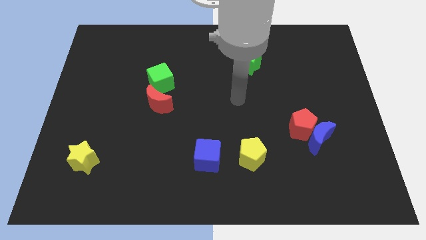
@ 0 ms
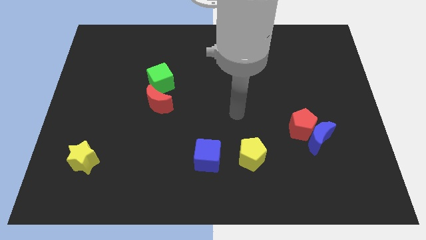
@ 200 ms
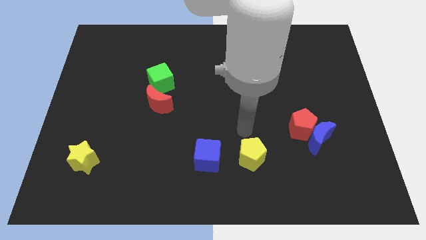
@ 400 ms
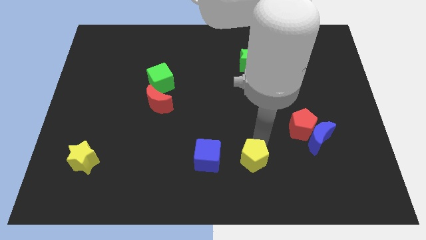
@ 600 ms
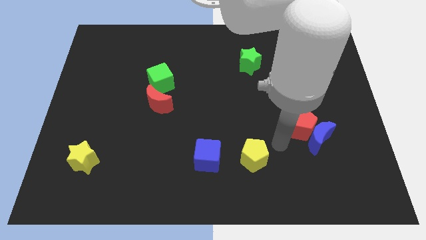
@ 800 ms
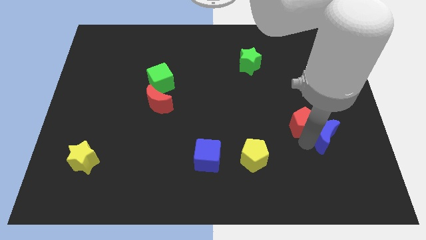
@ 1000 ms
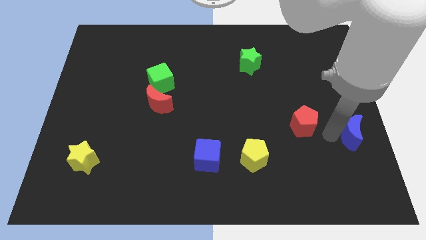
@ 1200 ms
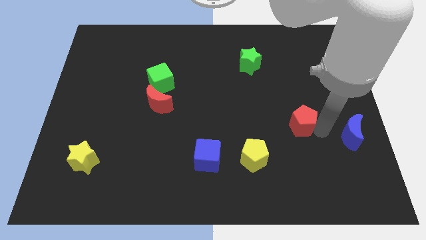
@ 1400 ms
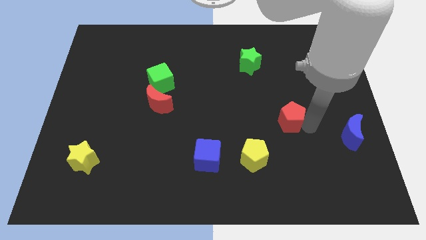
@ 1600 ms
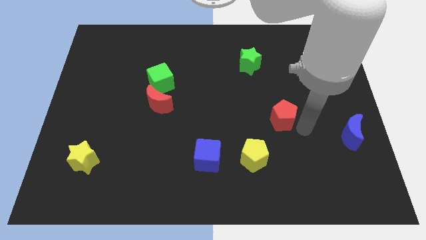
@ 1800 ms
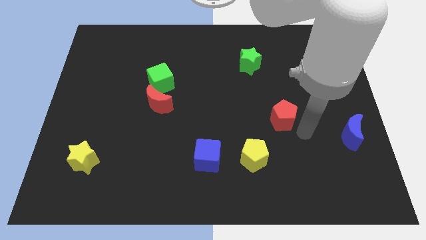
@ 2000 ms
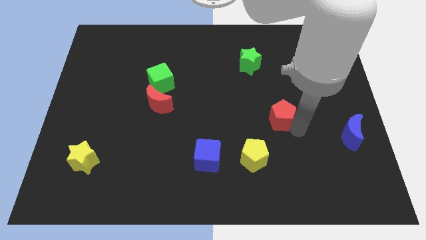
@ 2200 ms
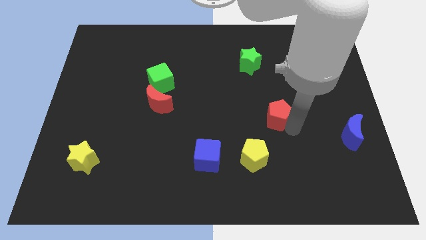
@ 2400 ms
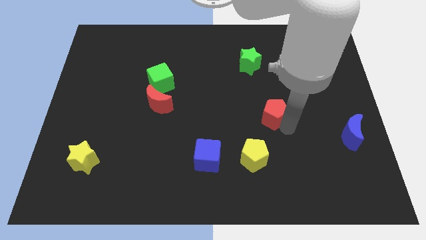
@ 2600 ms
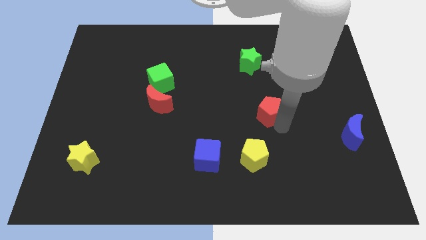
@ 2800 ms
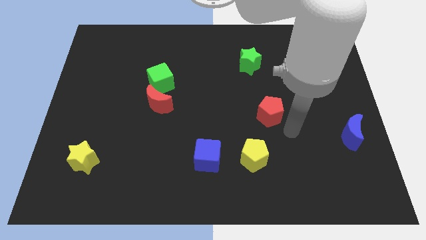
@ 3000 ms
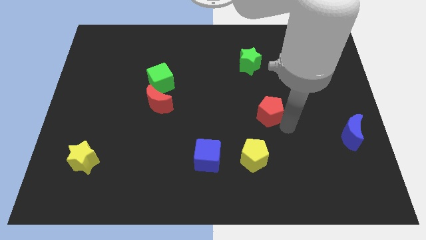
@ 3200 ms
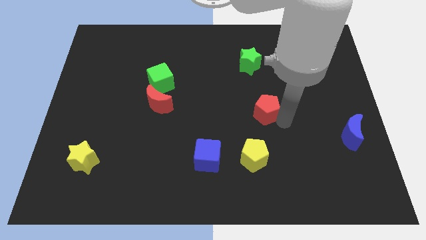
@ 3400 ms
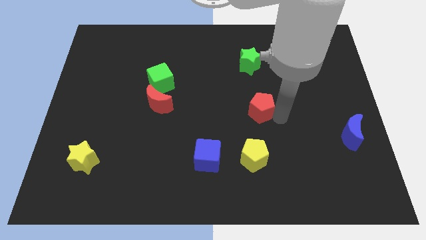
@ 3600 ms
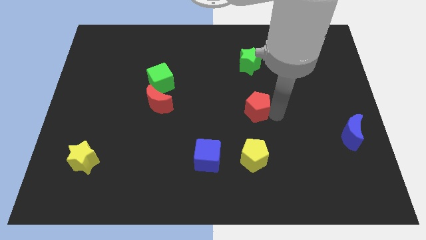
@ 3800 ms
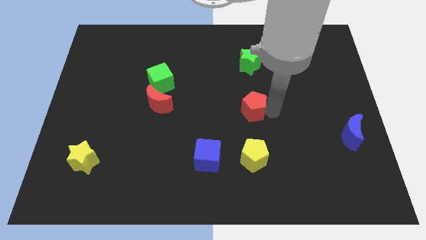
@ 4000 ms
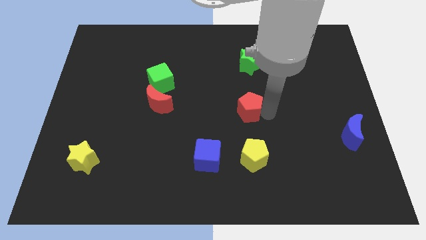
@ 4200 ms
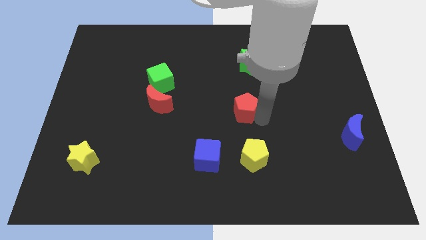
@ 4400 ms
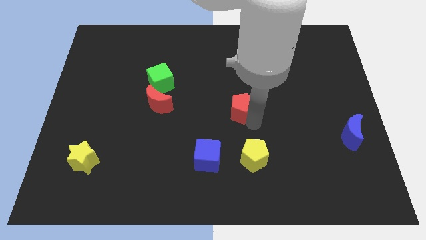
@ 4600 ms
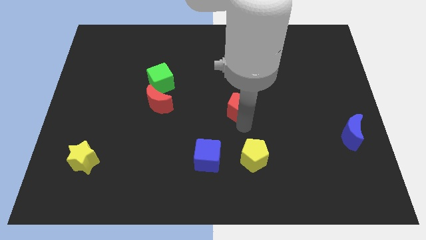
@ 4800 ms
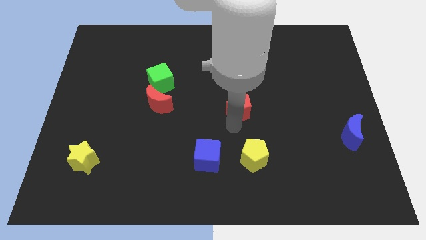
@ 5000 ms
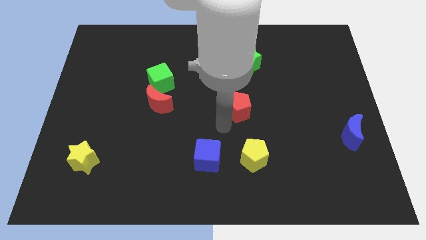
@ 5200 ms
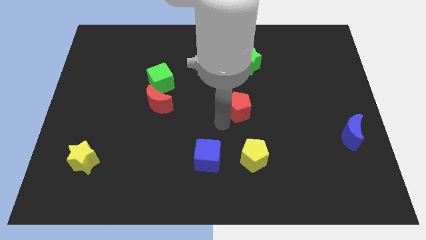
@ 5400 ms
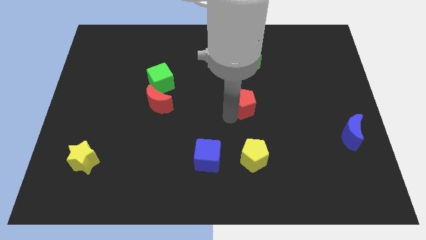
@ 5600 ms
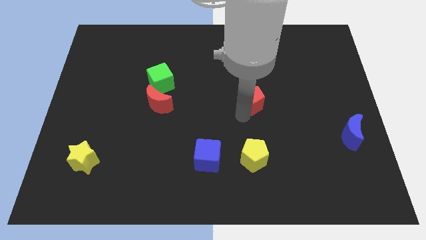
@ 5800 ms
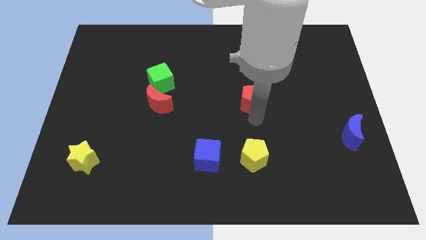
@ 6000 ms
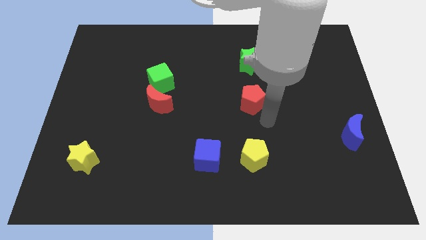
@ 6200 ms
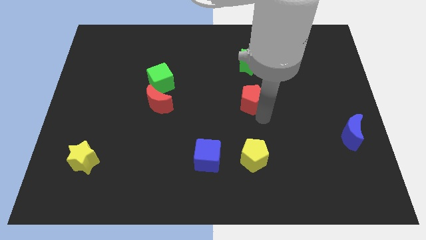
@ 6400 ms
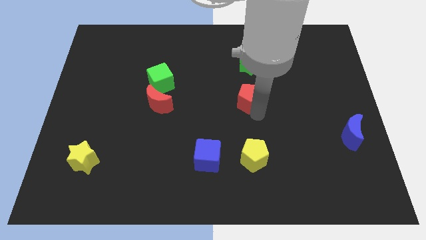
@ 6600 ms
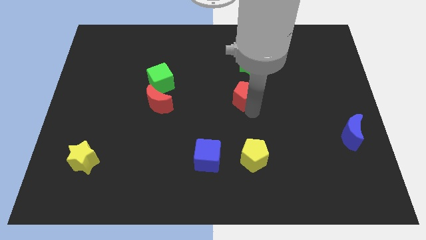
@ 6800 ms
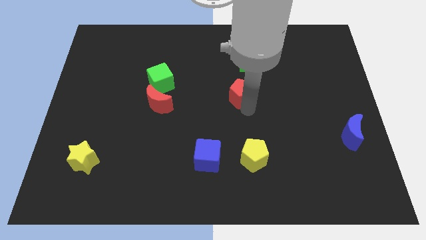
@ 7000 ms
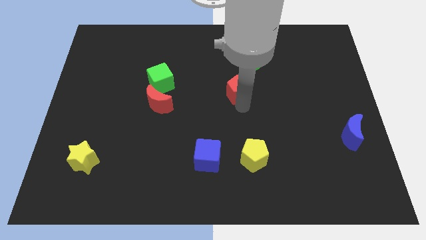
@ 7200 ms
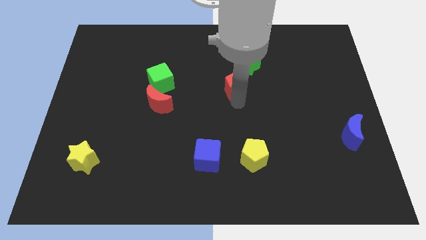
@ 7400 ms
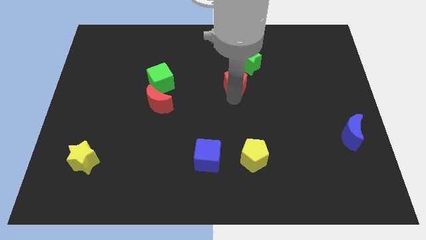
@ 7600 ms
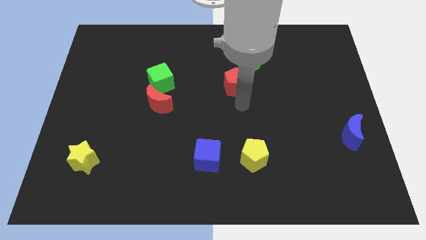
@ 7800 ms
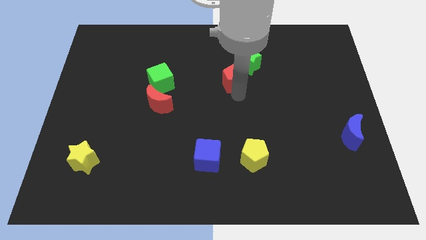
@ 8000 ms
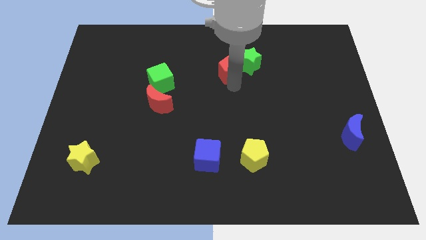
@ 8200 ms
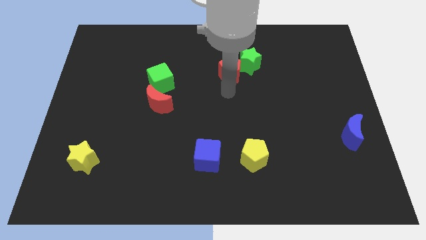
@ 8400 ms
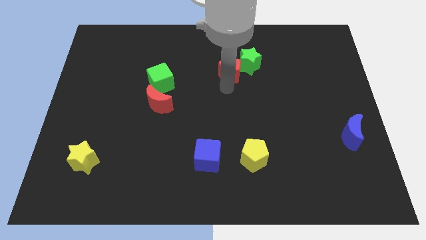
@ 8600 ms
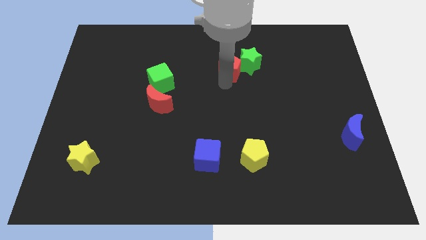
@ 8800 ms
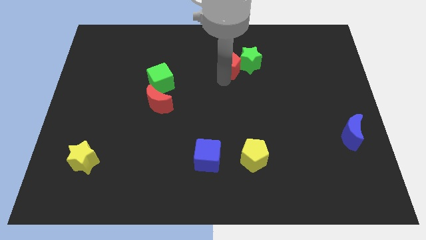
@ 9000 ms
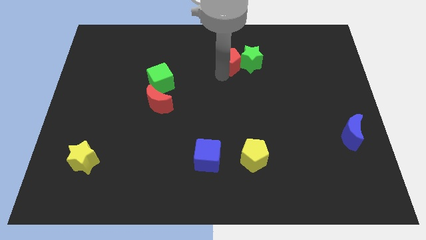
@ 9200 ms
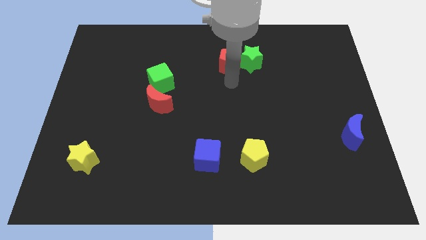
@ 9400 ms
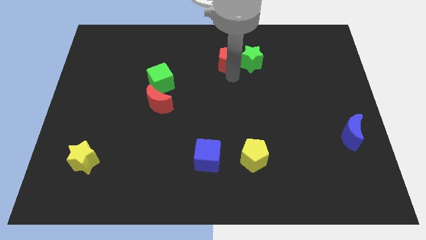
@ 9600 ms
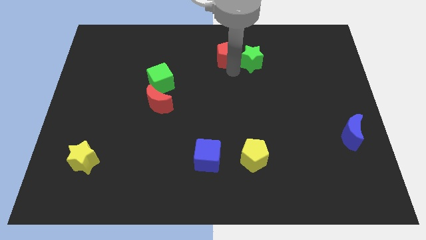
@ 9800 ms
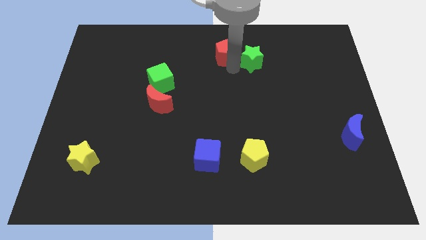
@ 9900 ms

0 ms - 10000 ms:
slide the red pentagon to the top side

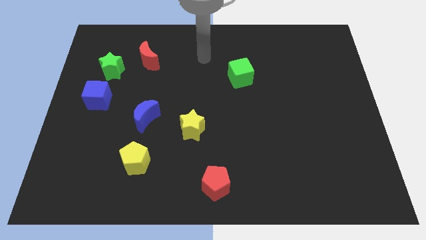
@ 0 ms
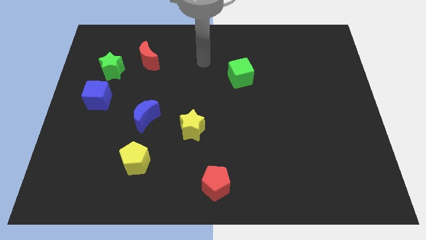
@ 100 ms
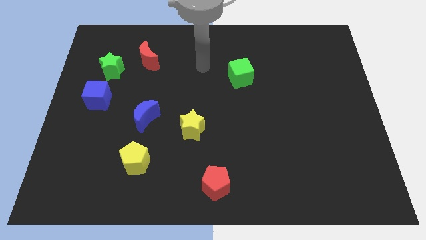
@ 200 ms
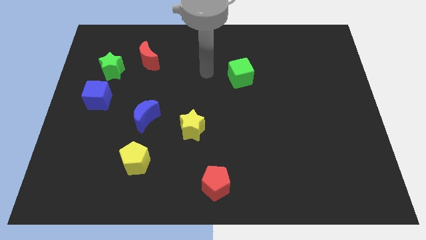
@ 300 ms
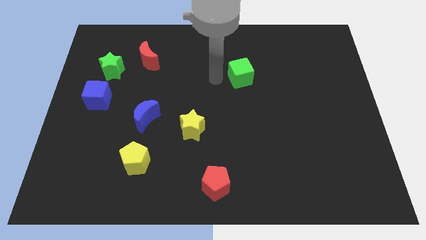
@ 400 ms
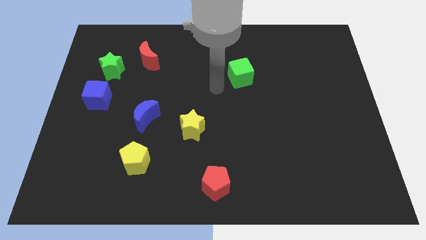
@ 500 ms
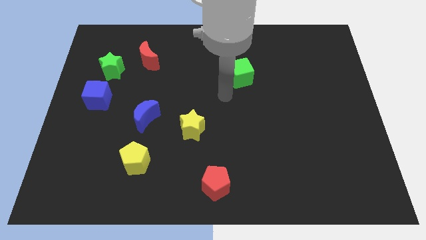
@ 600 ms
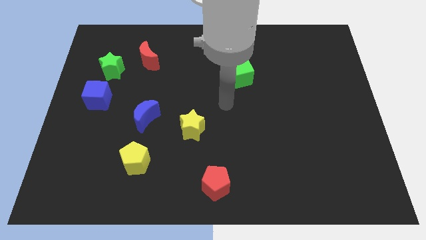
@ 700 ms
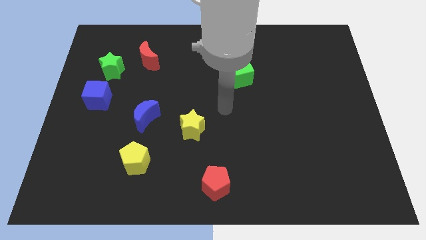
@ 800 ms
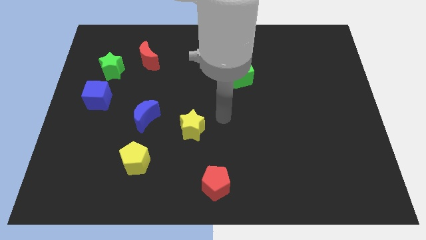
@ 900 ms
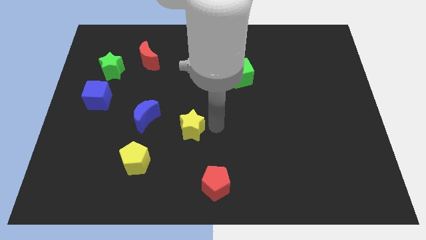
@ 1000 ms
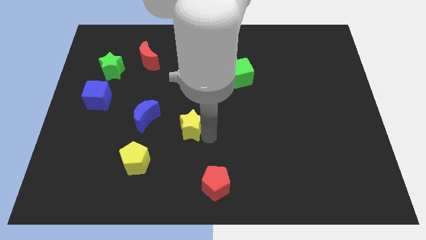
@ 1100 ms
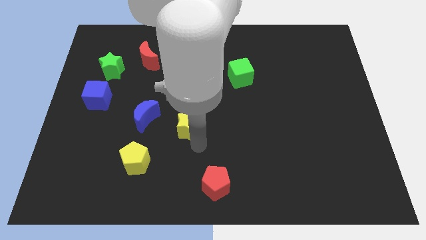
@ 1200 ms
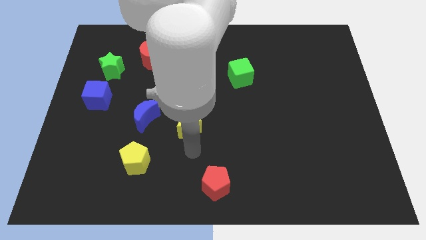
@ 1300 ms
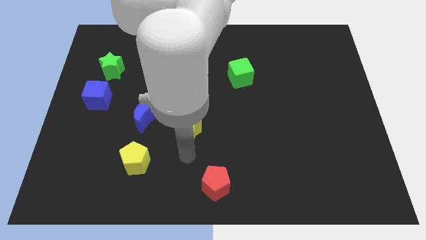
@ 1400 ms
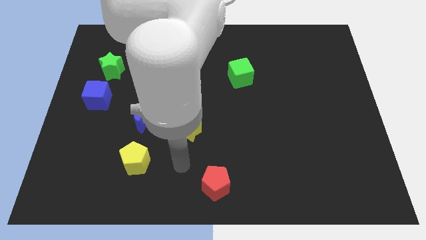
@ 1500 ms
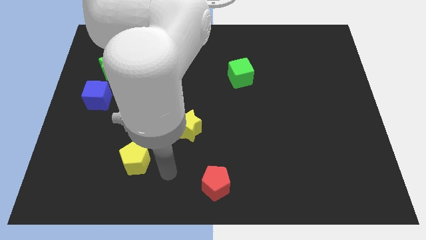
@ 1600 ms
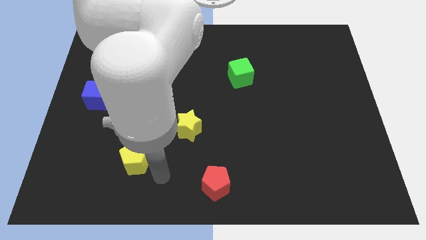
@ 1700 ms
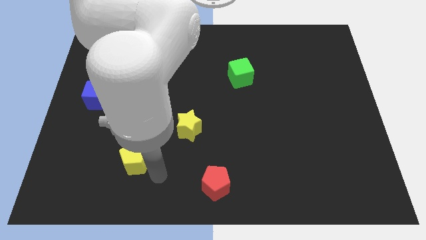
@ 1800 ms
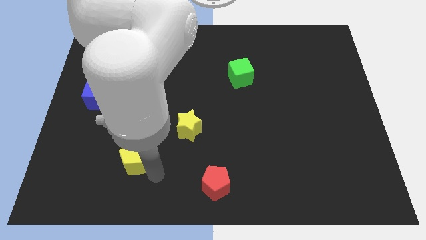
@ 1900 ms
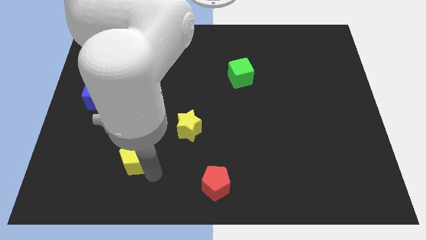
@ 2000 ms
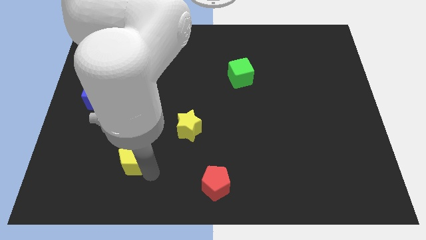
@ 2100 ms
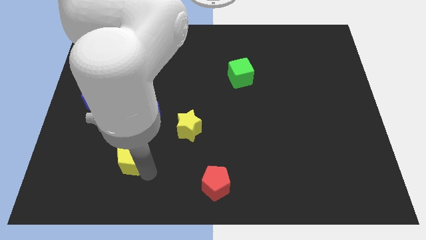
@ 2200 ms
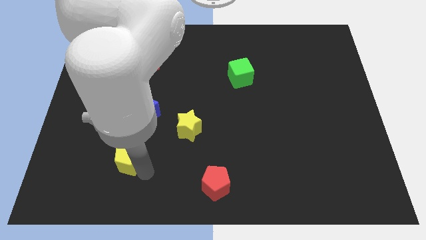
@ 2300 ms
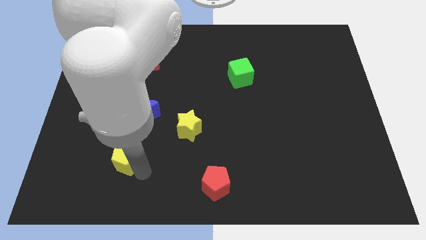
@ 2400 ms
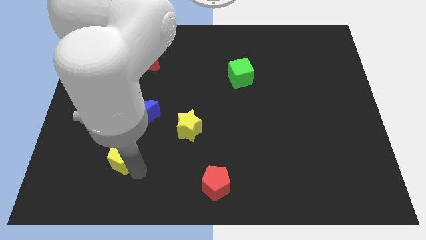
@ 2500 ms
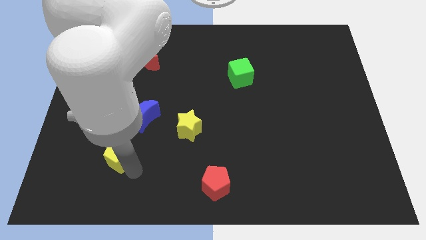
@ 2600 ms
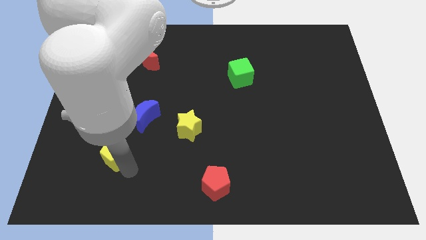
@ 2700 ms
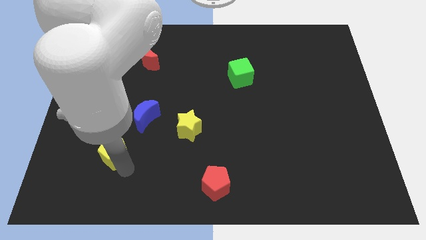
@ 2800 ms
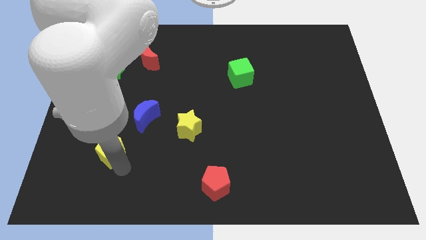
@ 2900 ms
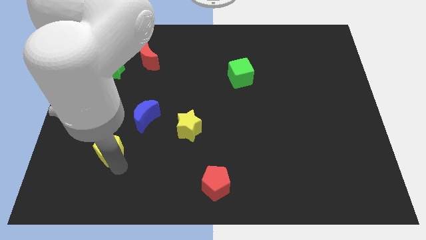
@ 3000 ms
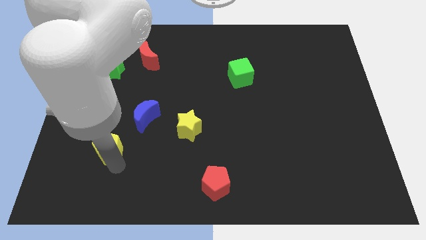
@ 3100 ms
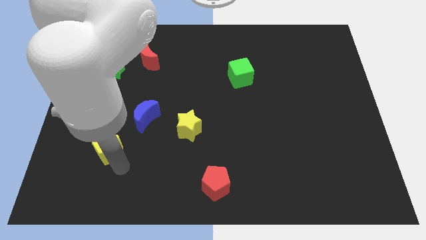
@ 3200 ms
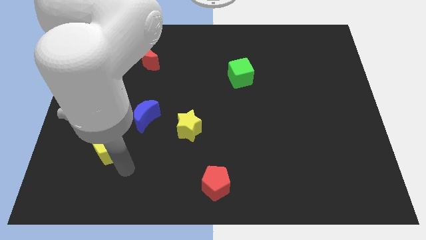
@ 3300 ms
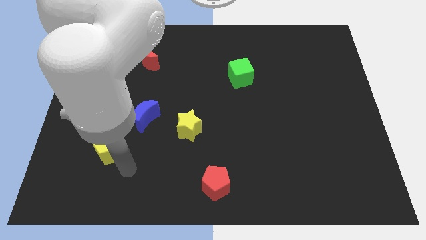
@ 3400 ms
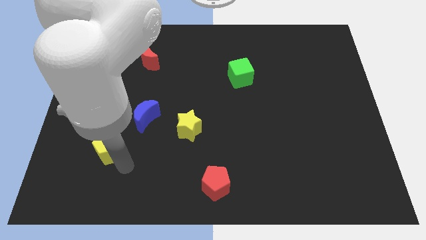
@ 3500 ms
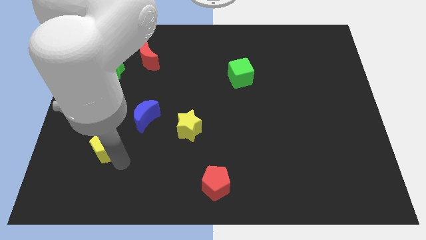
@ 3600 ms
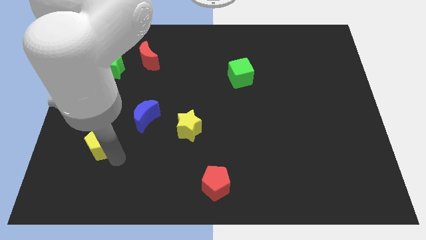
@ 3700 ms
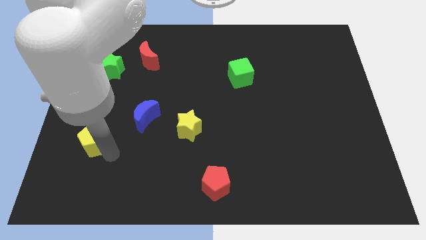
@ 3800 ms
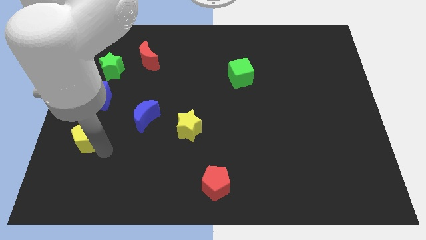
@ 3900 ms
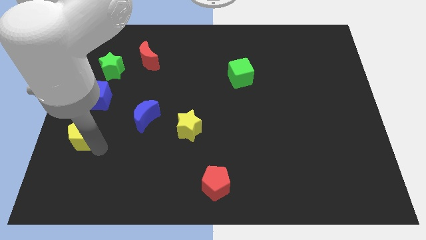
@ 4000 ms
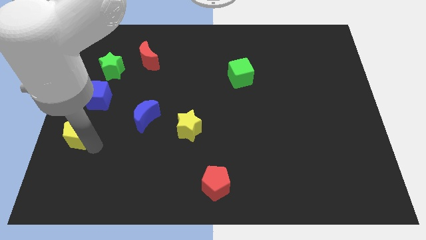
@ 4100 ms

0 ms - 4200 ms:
move the yellow pentagon to the left side
